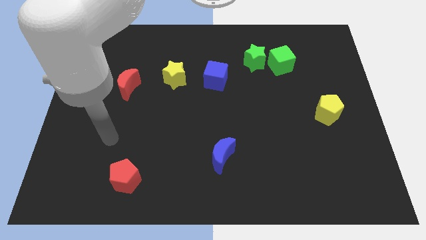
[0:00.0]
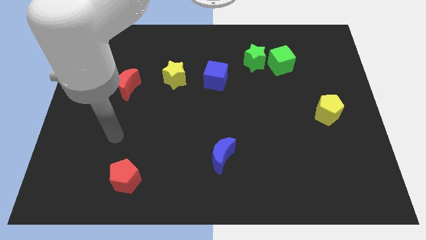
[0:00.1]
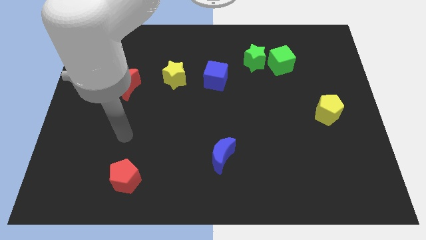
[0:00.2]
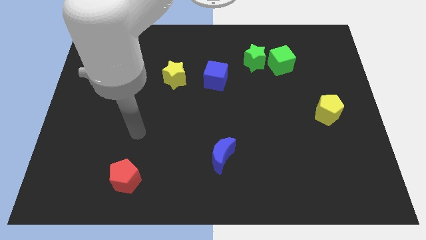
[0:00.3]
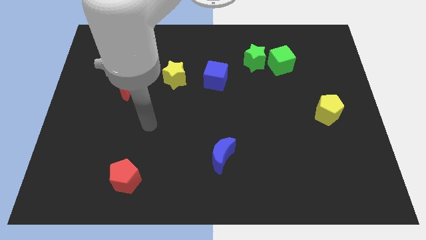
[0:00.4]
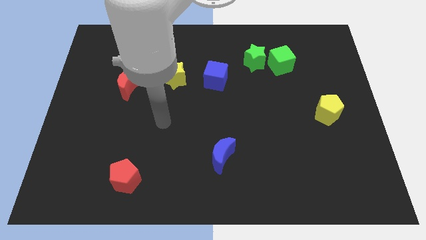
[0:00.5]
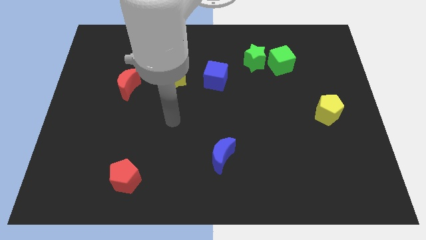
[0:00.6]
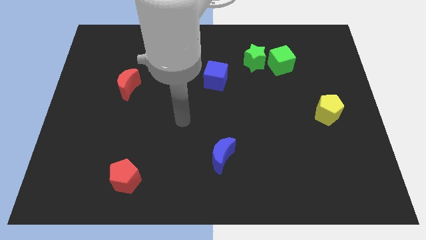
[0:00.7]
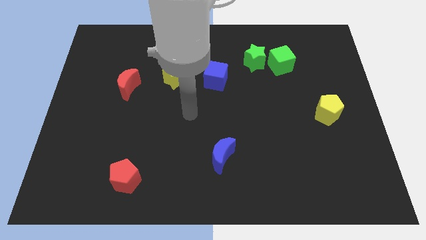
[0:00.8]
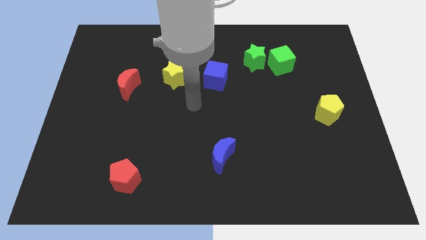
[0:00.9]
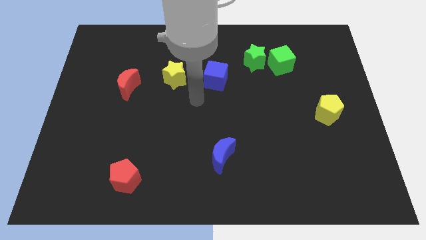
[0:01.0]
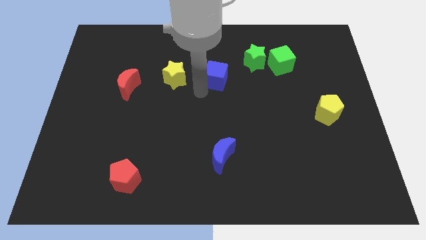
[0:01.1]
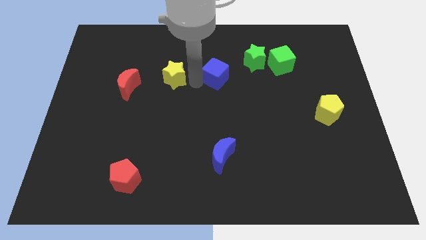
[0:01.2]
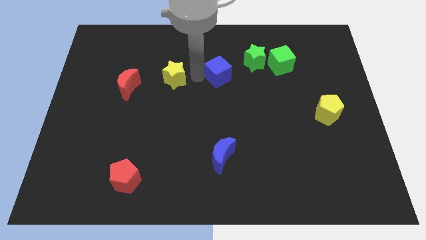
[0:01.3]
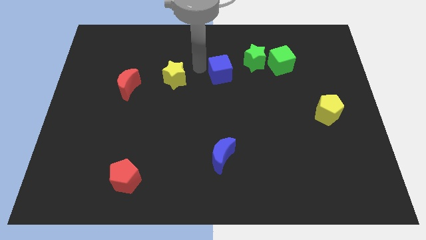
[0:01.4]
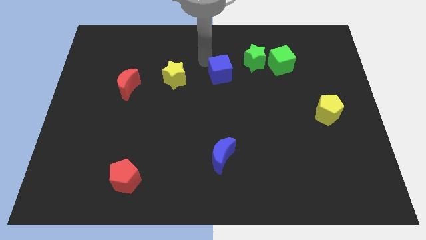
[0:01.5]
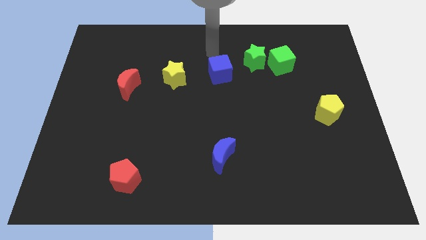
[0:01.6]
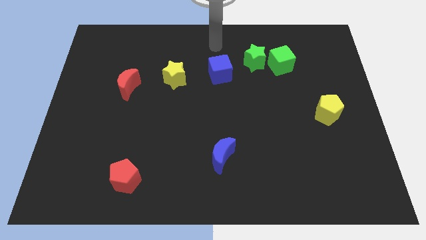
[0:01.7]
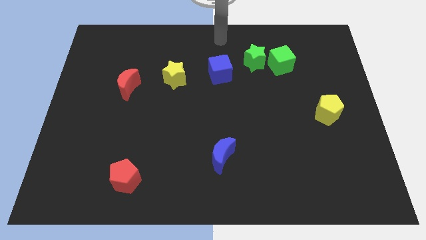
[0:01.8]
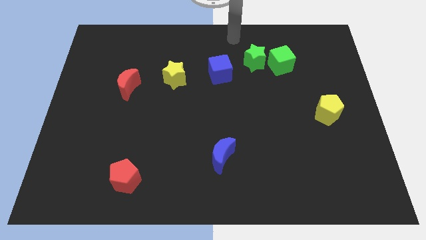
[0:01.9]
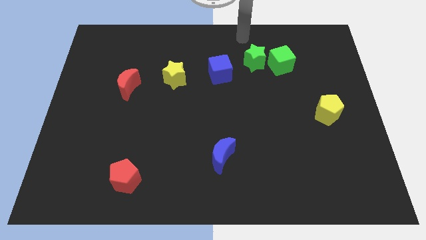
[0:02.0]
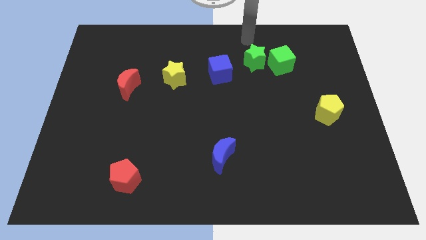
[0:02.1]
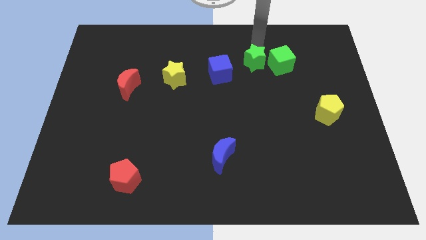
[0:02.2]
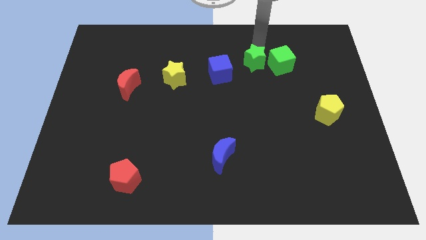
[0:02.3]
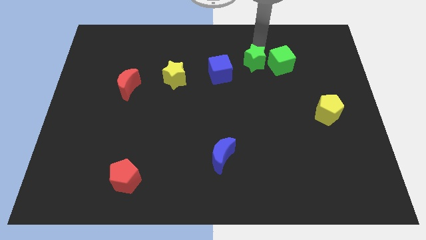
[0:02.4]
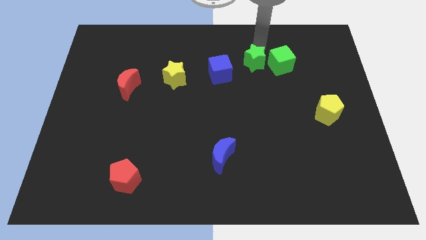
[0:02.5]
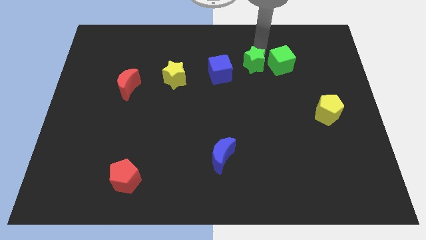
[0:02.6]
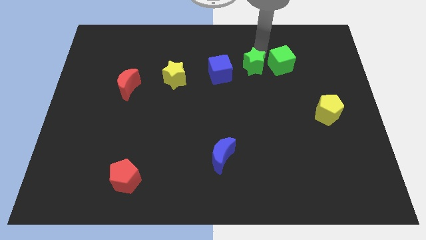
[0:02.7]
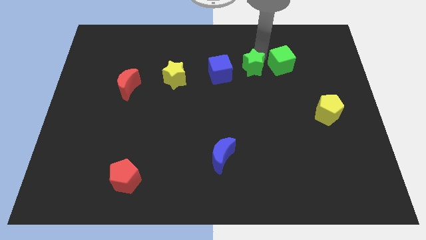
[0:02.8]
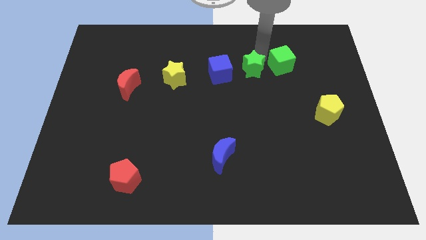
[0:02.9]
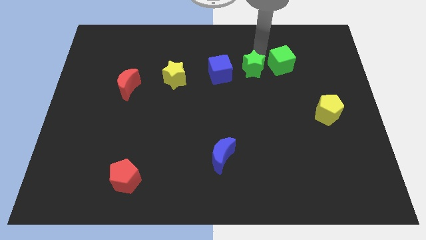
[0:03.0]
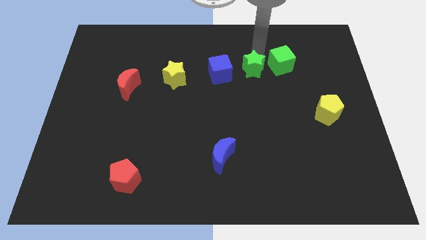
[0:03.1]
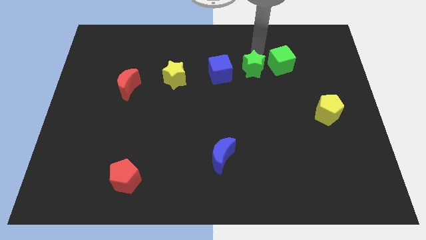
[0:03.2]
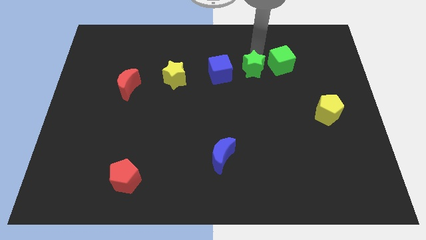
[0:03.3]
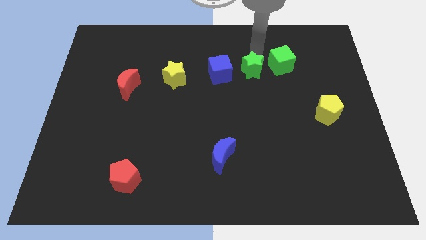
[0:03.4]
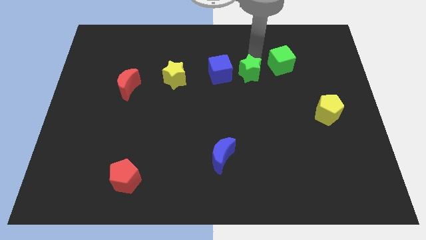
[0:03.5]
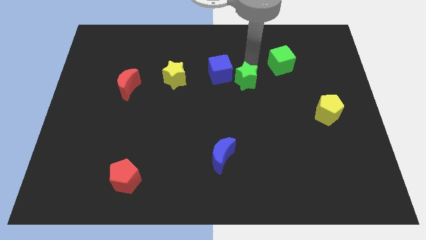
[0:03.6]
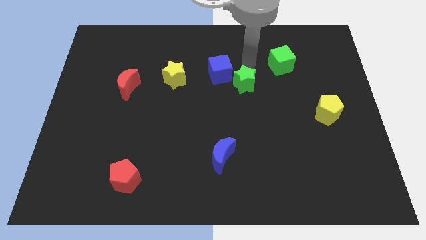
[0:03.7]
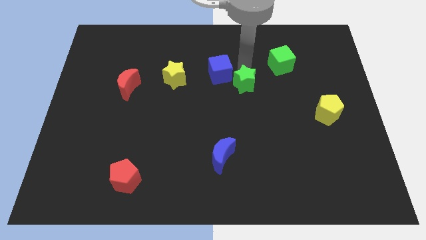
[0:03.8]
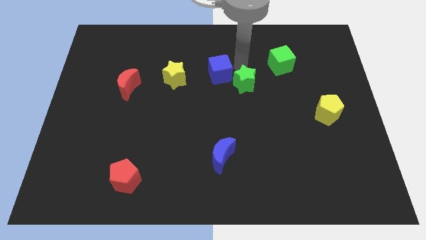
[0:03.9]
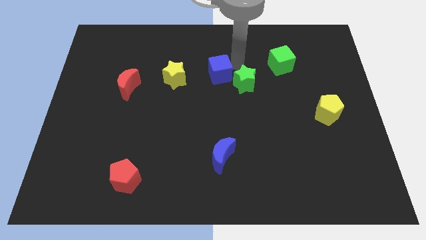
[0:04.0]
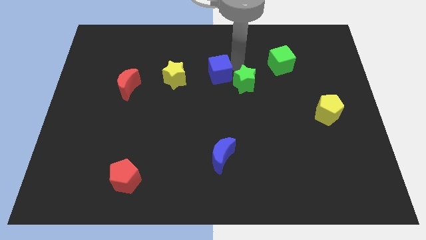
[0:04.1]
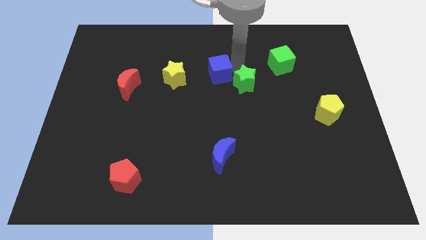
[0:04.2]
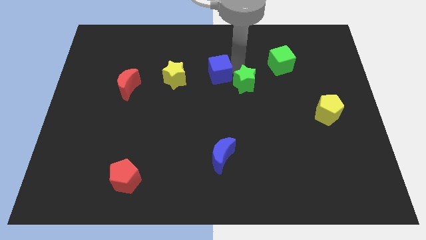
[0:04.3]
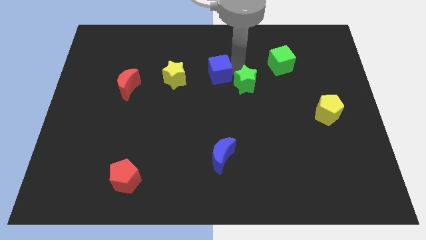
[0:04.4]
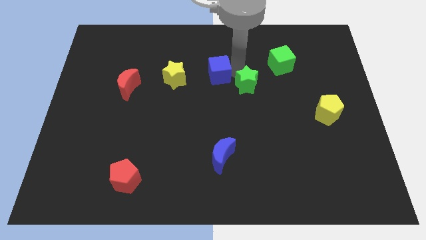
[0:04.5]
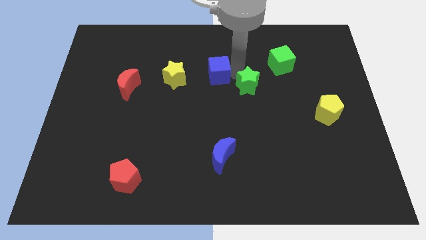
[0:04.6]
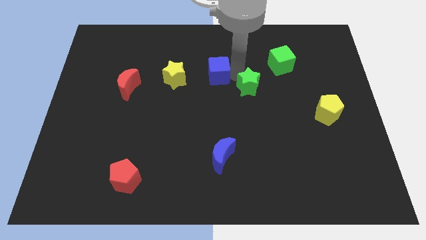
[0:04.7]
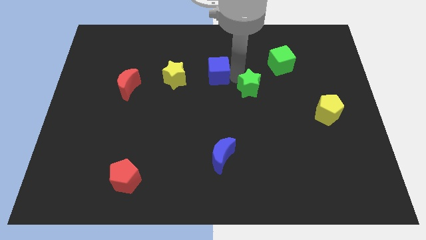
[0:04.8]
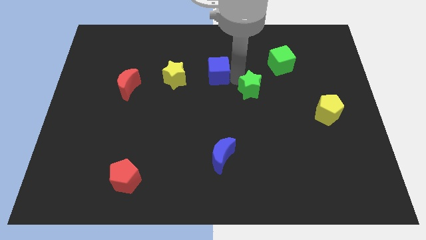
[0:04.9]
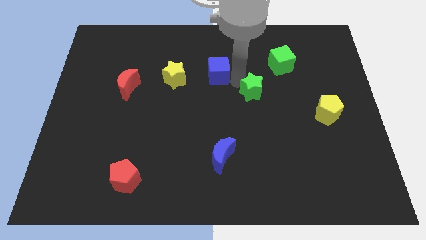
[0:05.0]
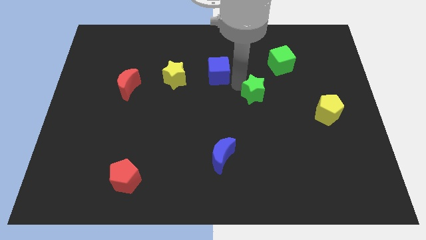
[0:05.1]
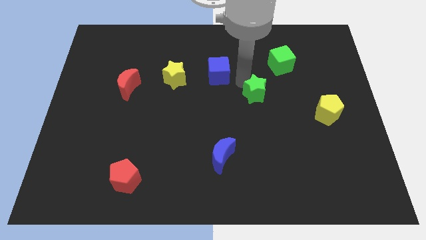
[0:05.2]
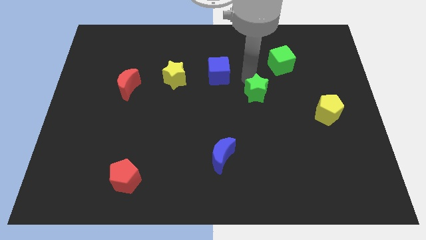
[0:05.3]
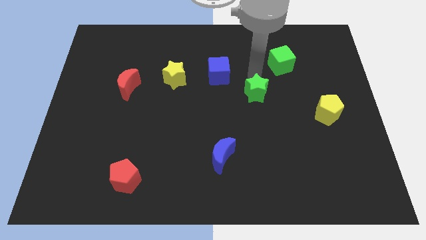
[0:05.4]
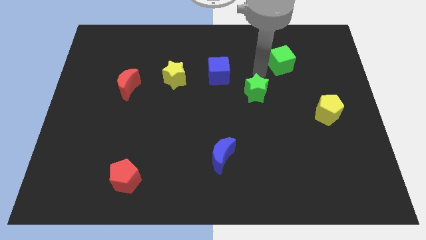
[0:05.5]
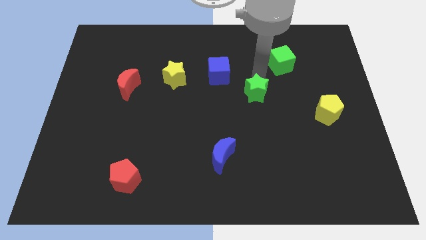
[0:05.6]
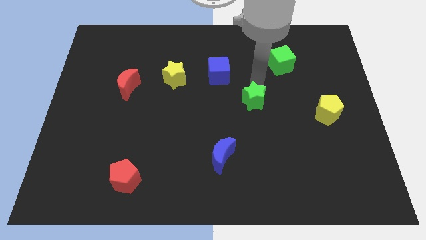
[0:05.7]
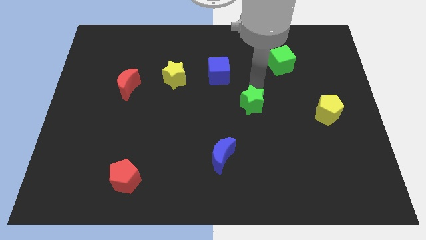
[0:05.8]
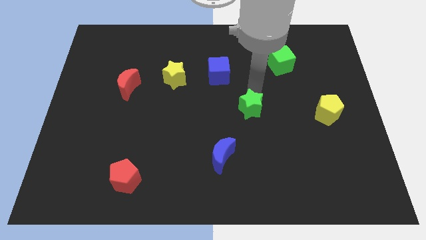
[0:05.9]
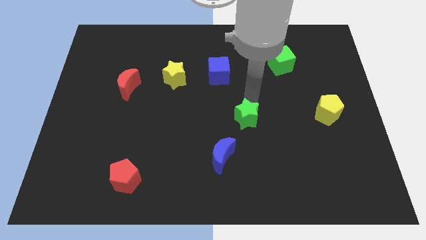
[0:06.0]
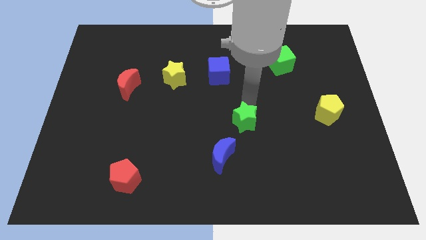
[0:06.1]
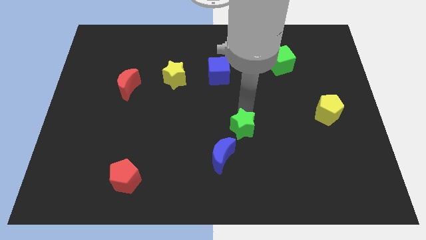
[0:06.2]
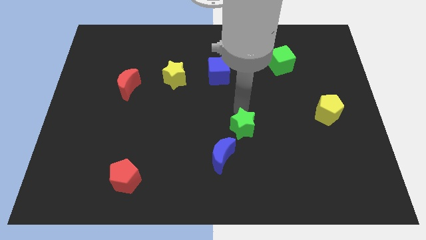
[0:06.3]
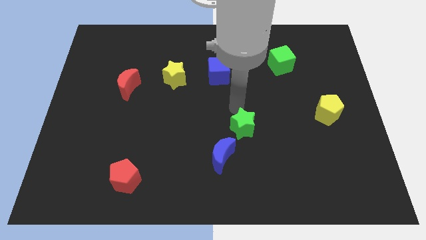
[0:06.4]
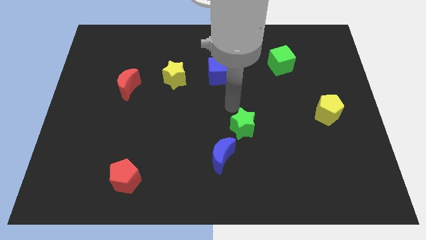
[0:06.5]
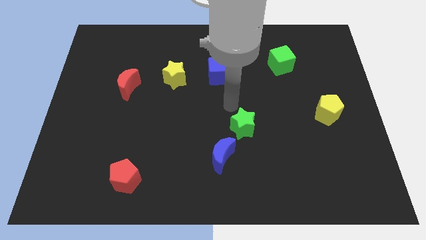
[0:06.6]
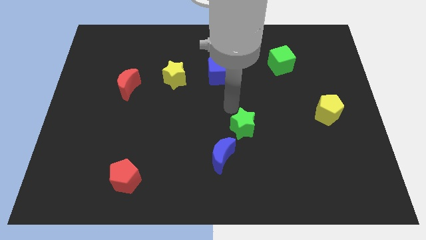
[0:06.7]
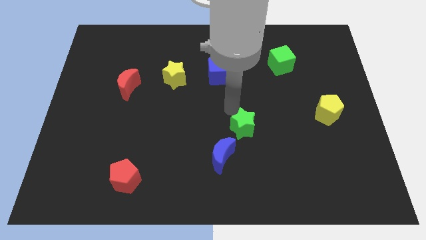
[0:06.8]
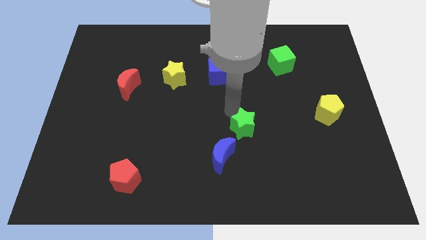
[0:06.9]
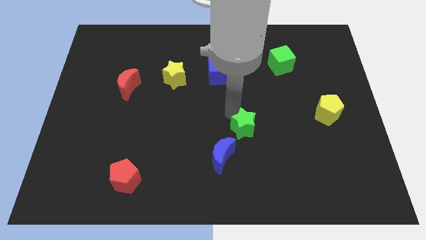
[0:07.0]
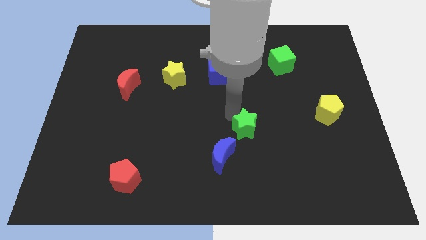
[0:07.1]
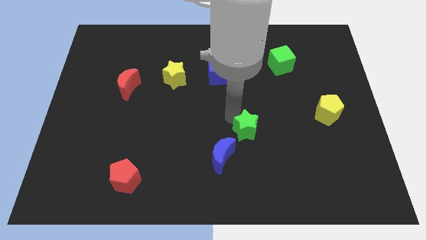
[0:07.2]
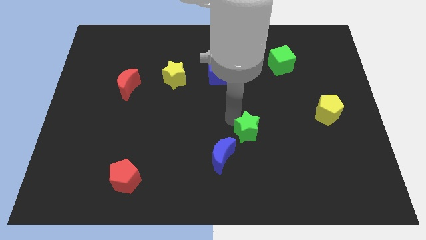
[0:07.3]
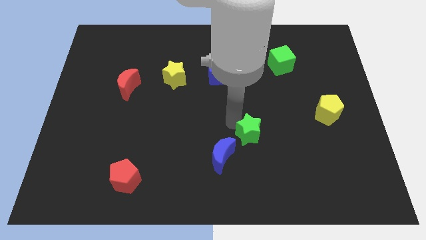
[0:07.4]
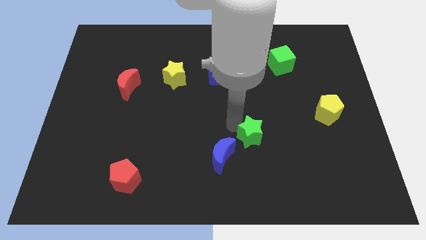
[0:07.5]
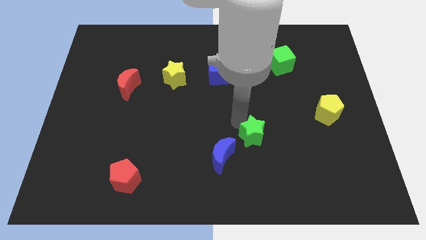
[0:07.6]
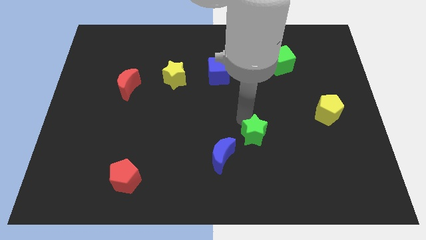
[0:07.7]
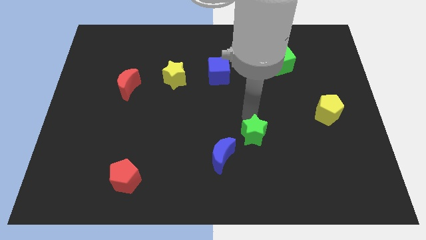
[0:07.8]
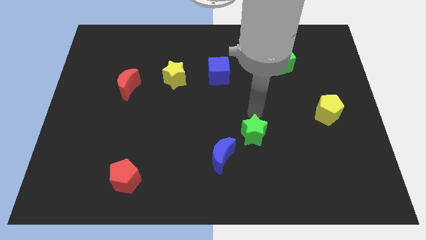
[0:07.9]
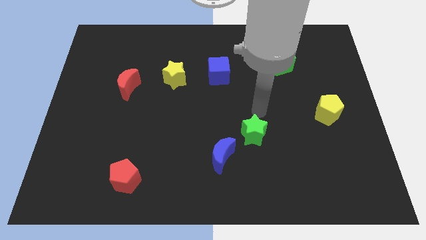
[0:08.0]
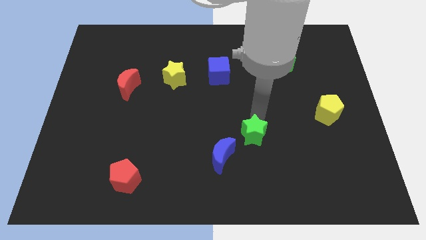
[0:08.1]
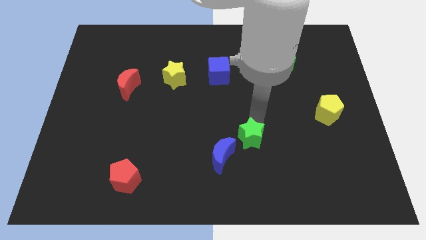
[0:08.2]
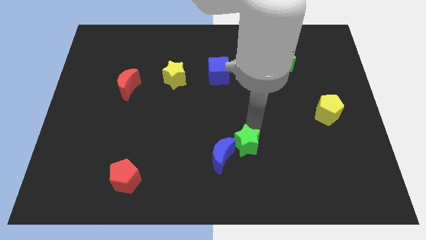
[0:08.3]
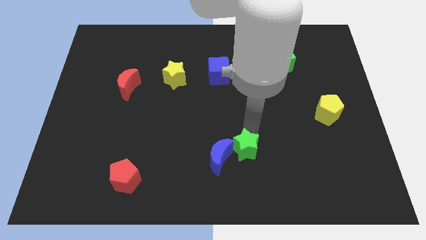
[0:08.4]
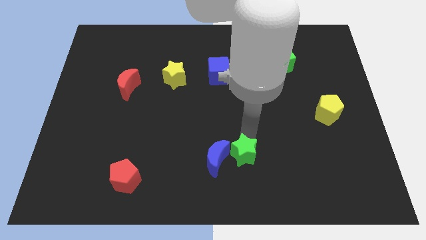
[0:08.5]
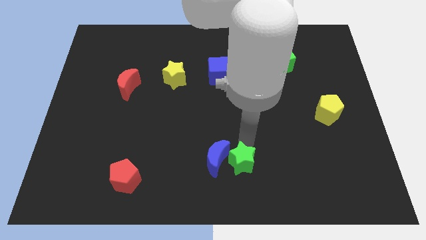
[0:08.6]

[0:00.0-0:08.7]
slide the green star to the bottom side
